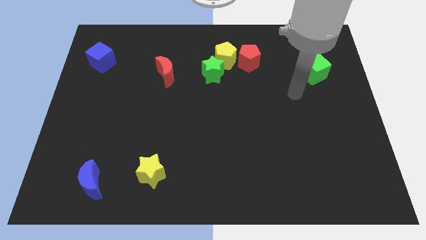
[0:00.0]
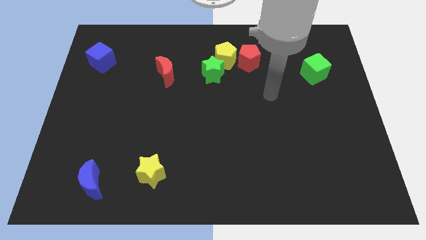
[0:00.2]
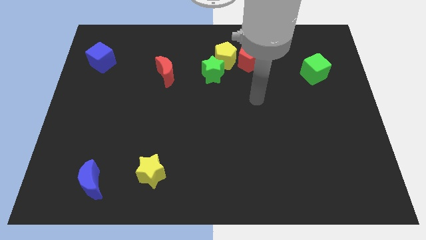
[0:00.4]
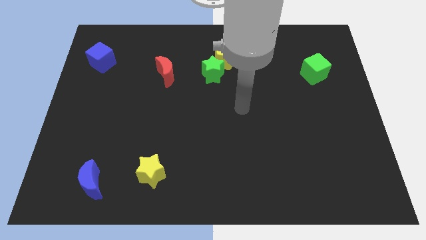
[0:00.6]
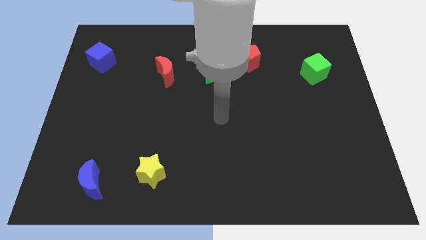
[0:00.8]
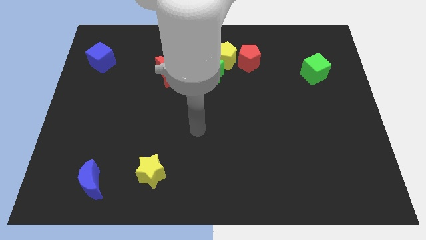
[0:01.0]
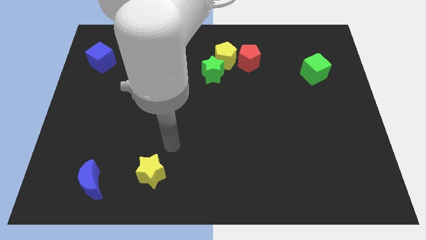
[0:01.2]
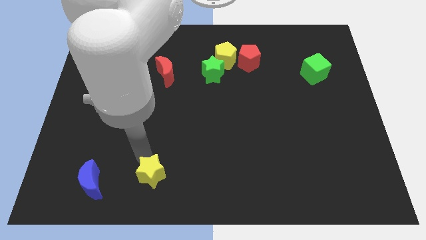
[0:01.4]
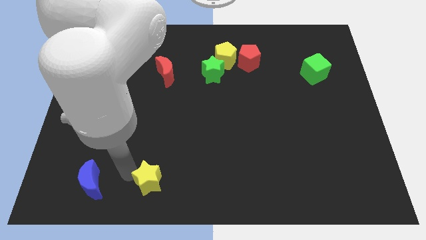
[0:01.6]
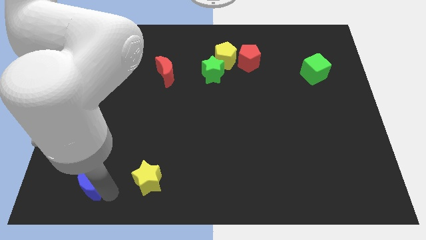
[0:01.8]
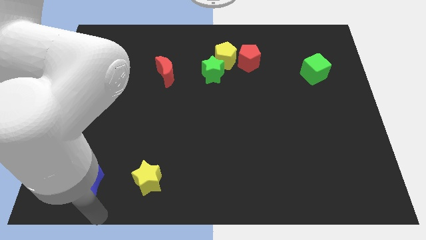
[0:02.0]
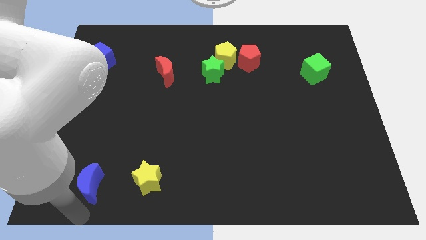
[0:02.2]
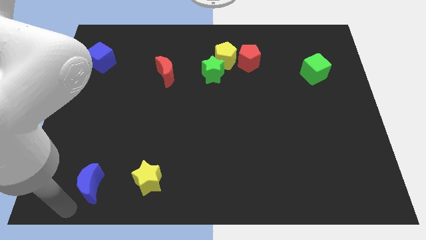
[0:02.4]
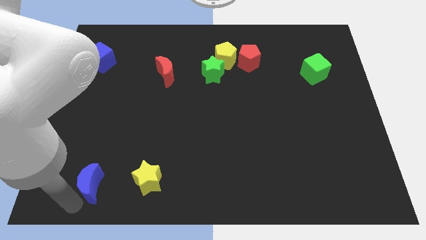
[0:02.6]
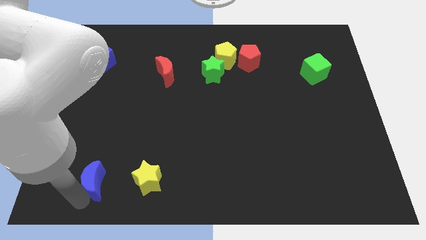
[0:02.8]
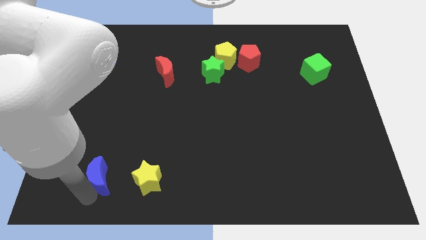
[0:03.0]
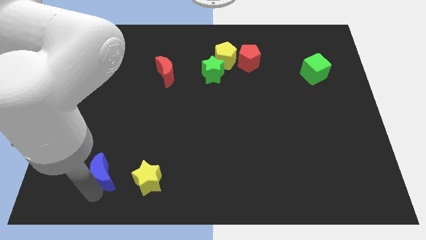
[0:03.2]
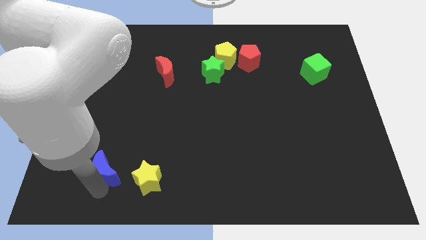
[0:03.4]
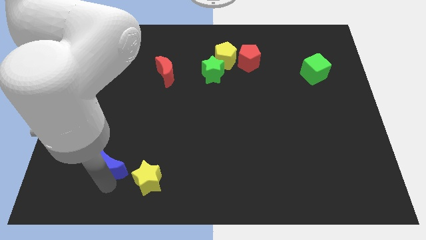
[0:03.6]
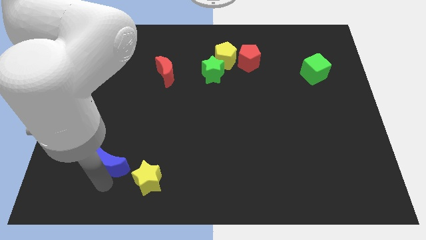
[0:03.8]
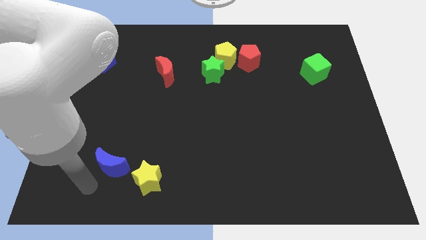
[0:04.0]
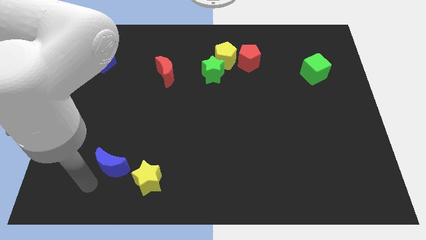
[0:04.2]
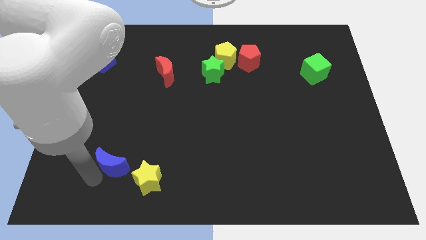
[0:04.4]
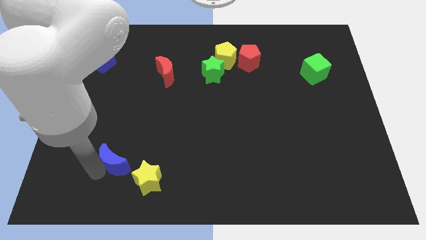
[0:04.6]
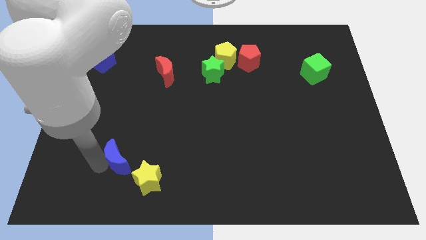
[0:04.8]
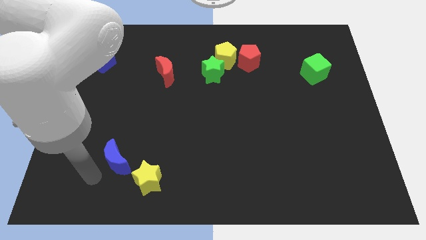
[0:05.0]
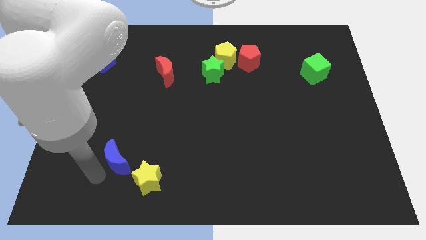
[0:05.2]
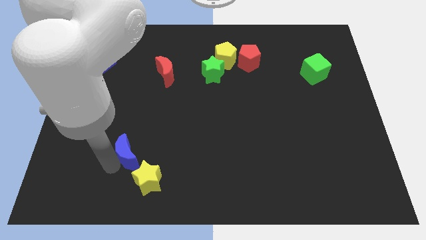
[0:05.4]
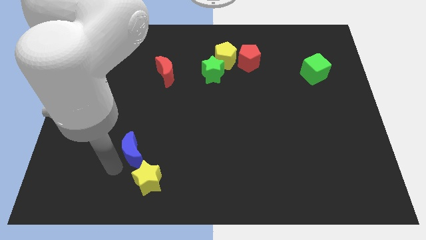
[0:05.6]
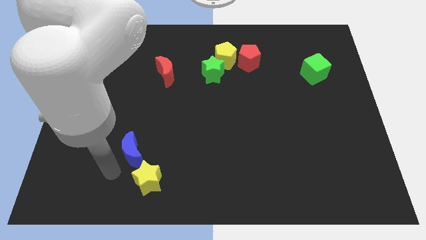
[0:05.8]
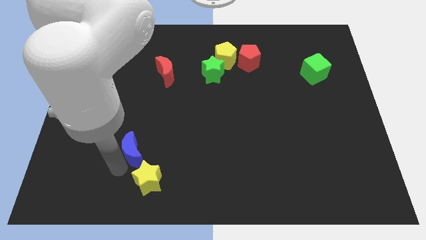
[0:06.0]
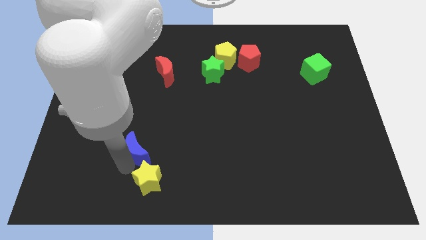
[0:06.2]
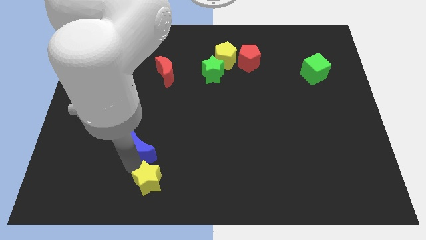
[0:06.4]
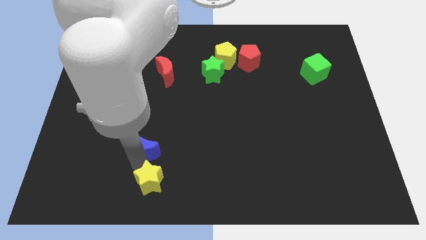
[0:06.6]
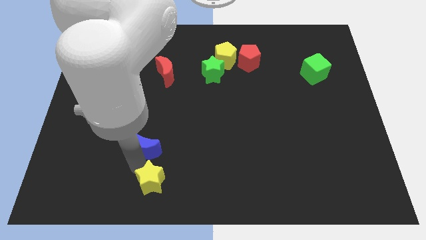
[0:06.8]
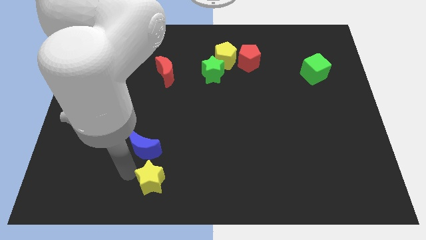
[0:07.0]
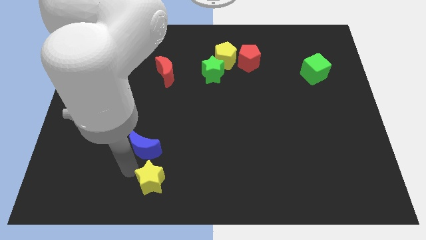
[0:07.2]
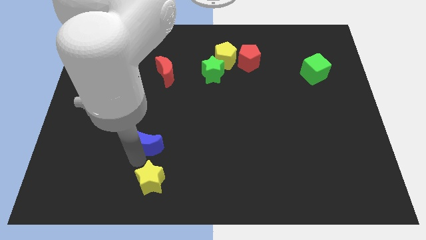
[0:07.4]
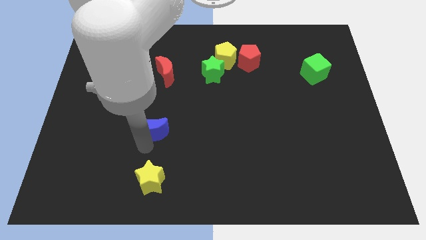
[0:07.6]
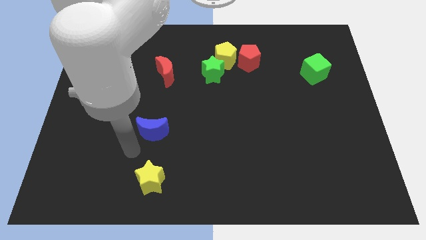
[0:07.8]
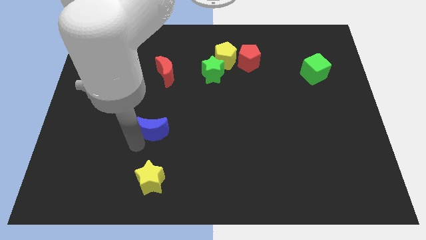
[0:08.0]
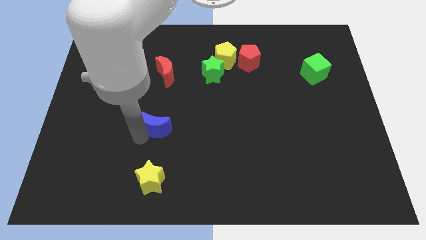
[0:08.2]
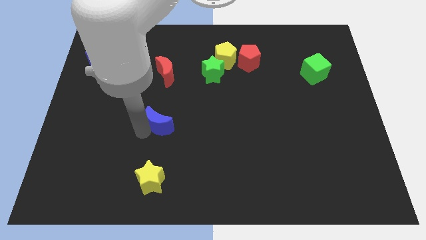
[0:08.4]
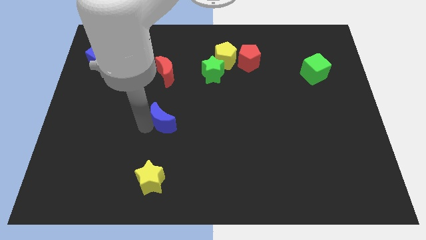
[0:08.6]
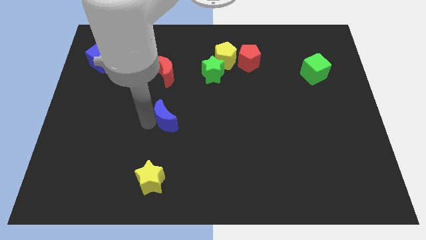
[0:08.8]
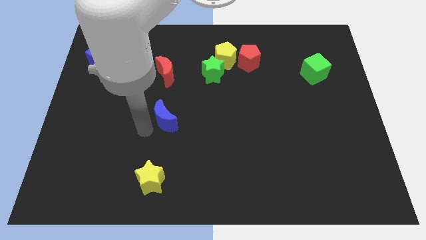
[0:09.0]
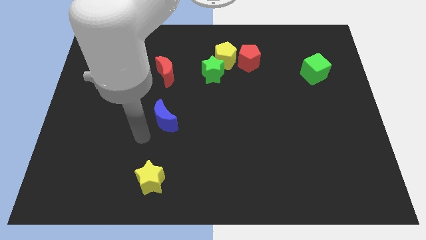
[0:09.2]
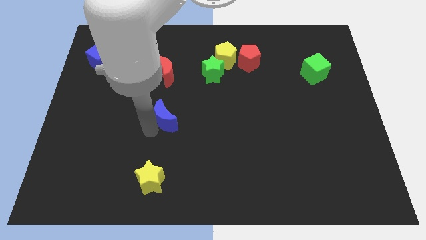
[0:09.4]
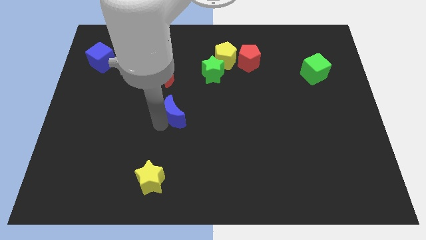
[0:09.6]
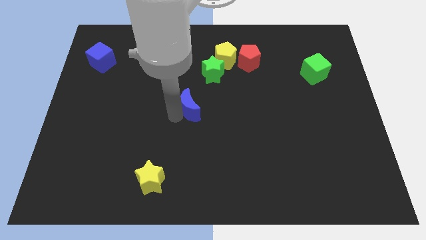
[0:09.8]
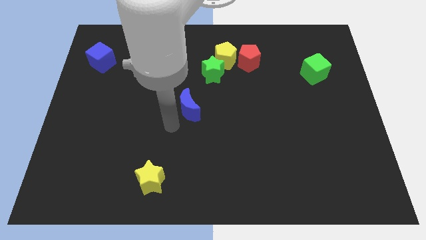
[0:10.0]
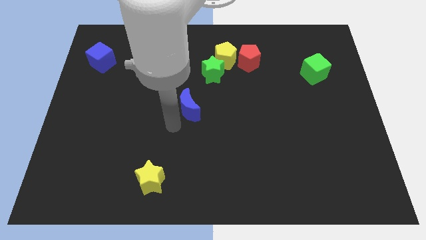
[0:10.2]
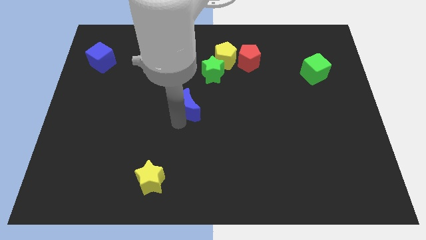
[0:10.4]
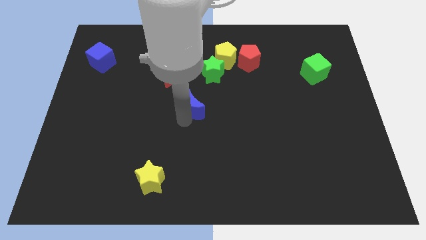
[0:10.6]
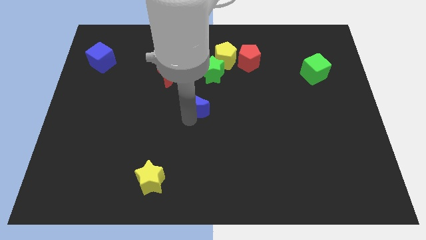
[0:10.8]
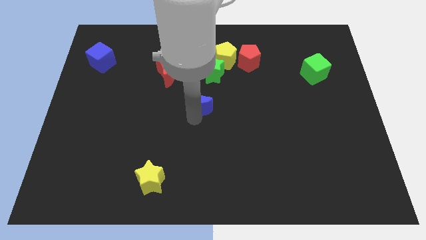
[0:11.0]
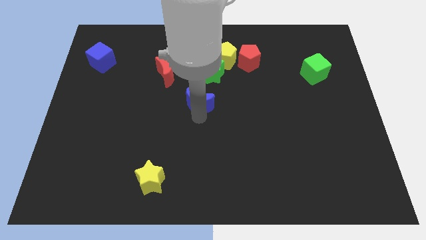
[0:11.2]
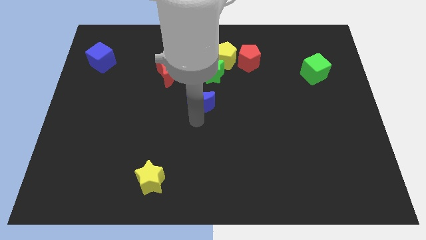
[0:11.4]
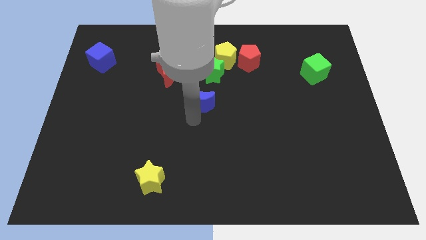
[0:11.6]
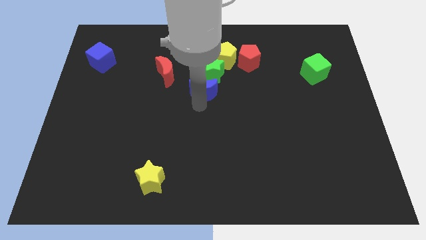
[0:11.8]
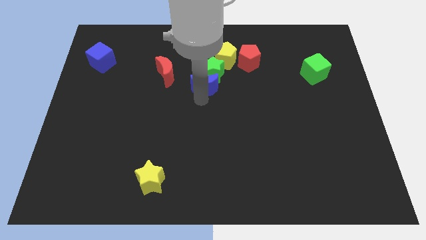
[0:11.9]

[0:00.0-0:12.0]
push the blue moon towards the green star
